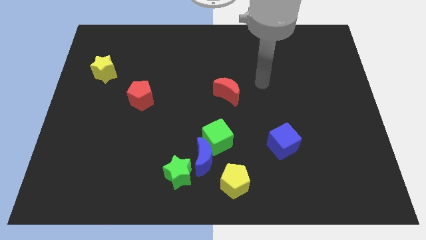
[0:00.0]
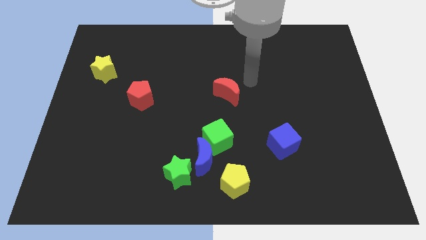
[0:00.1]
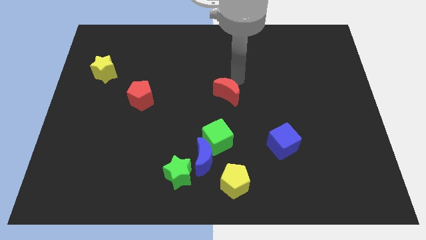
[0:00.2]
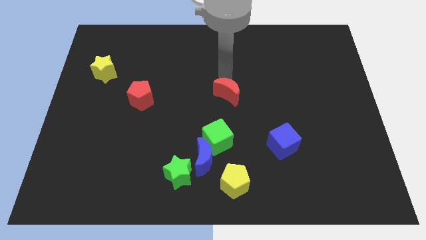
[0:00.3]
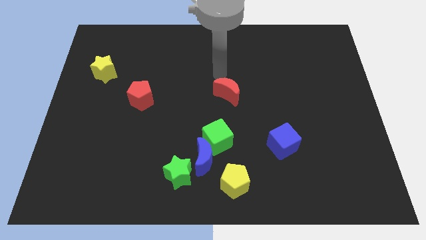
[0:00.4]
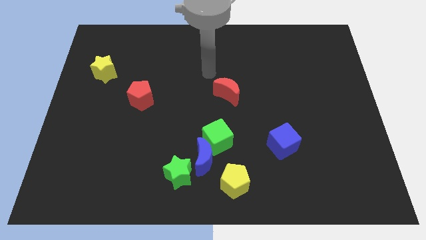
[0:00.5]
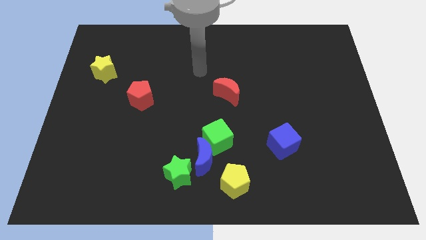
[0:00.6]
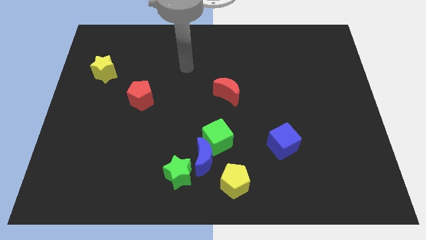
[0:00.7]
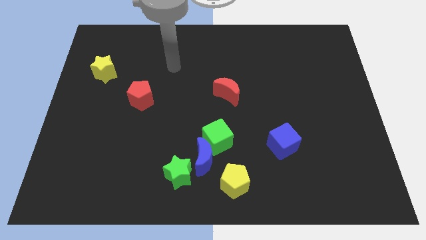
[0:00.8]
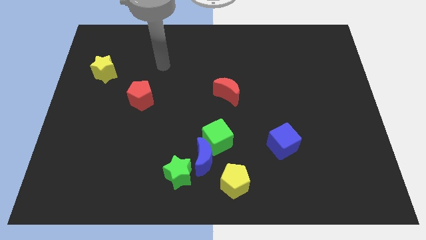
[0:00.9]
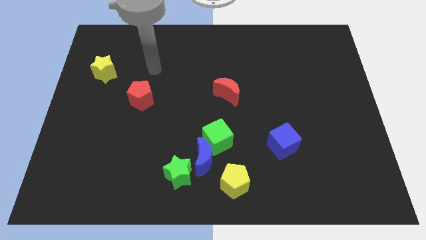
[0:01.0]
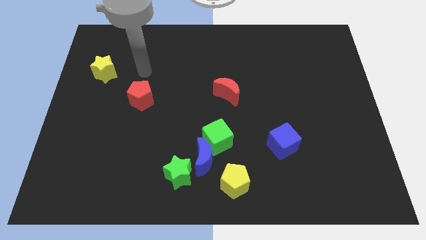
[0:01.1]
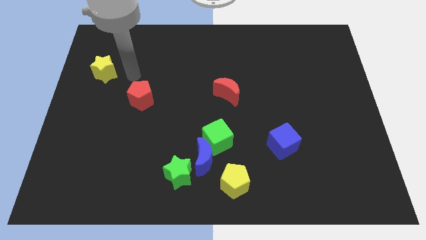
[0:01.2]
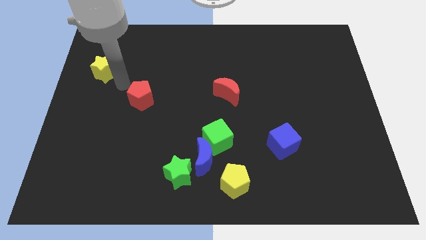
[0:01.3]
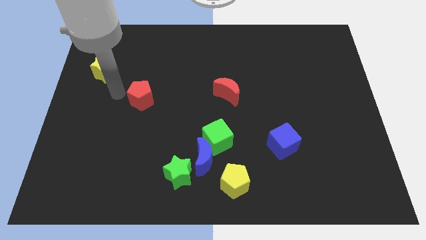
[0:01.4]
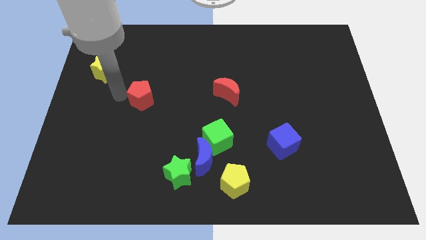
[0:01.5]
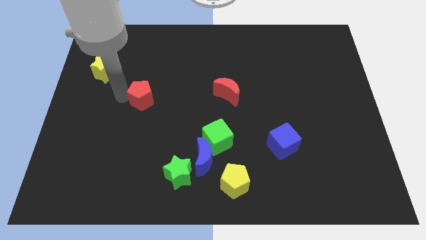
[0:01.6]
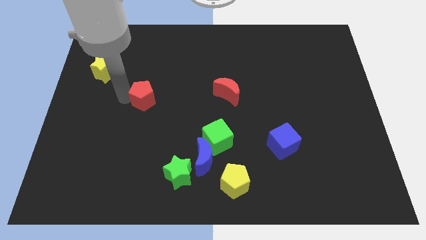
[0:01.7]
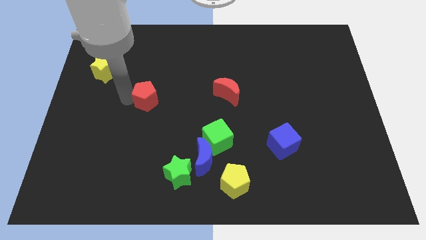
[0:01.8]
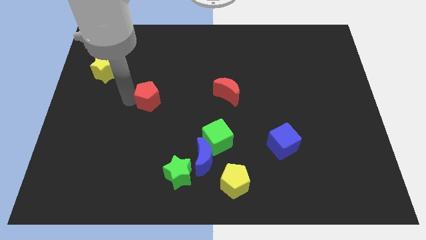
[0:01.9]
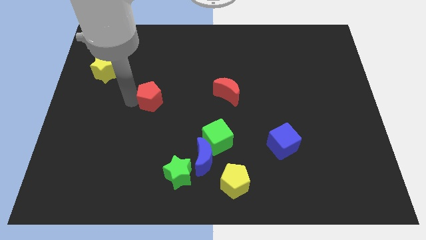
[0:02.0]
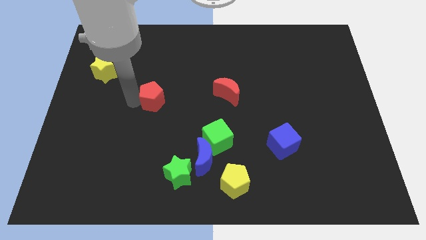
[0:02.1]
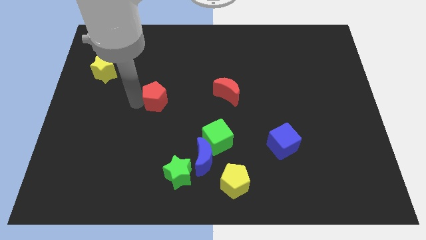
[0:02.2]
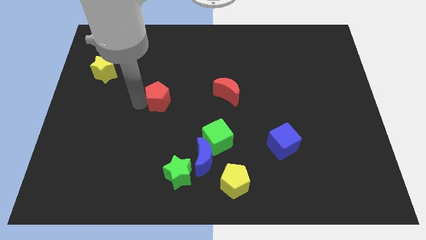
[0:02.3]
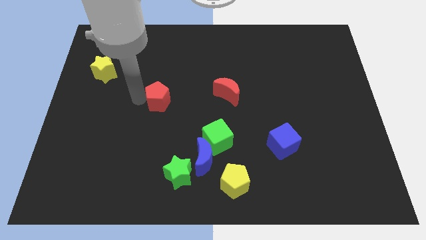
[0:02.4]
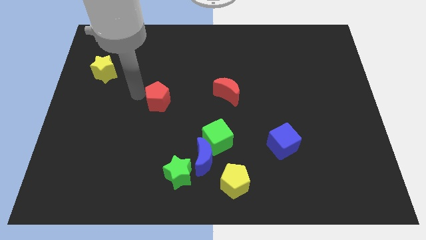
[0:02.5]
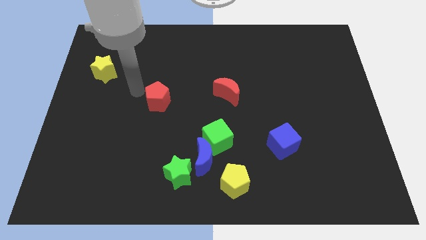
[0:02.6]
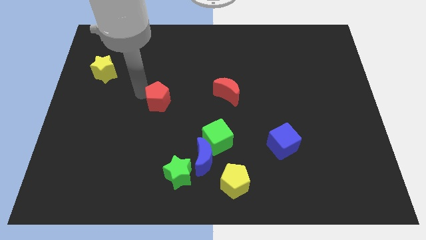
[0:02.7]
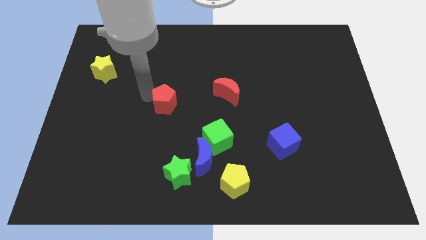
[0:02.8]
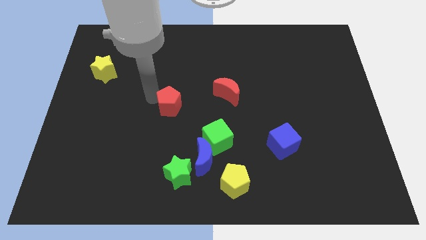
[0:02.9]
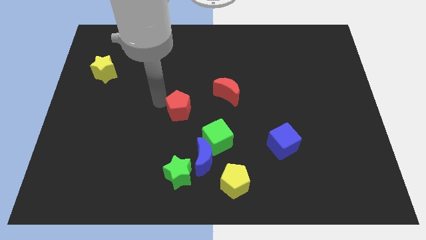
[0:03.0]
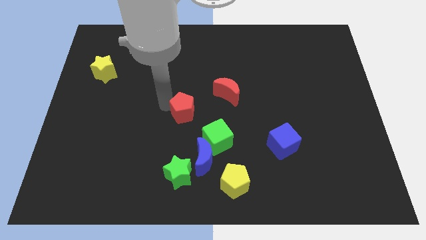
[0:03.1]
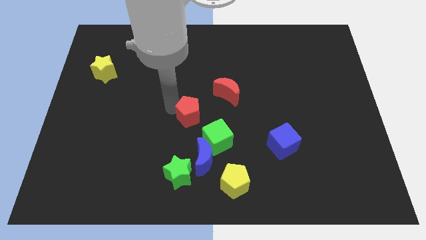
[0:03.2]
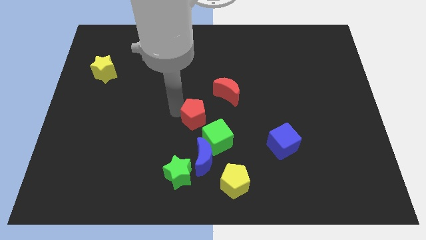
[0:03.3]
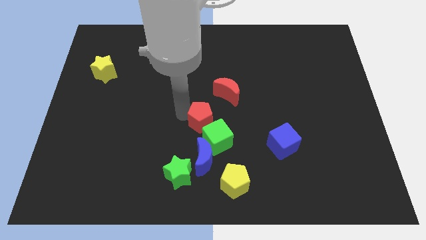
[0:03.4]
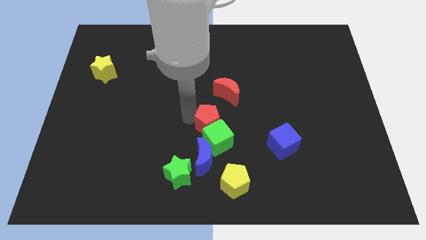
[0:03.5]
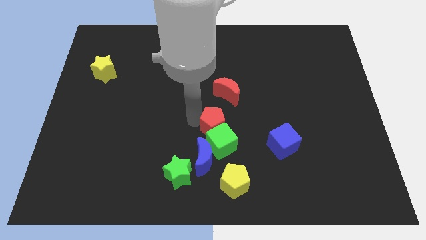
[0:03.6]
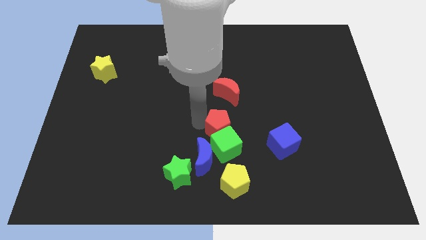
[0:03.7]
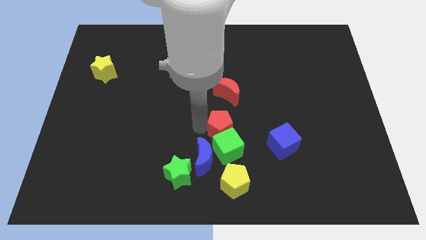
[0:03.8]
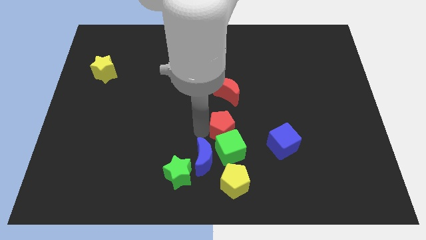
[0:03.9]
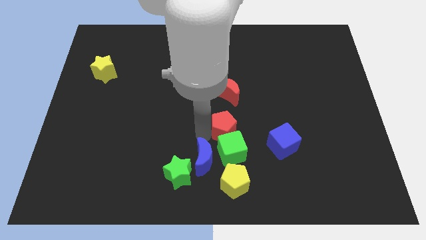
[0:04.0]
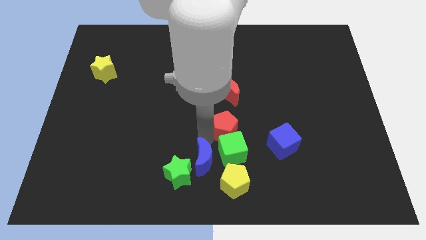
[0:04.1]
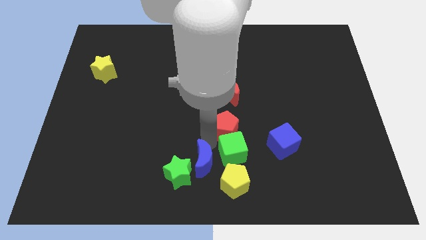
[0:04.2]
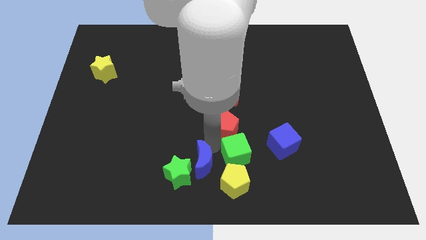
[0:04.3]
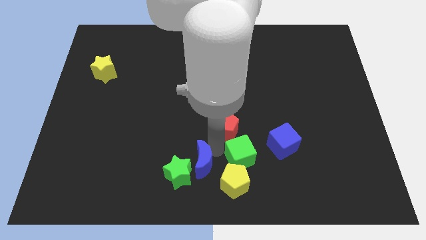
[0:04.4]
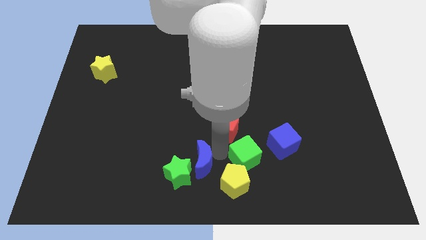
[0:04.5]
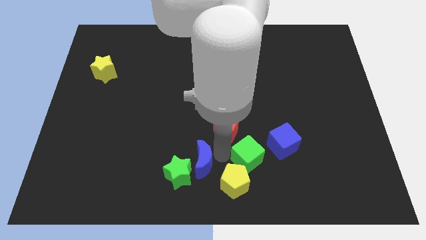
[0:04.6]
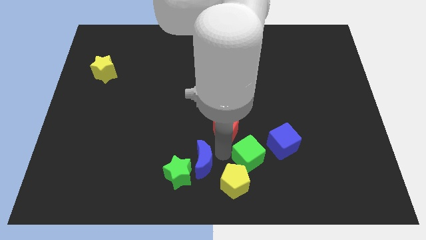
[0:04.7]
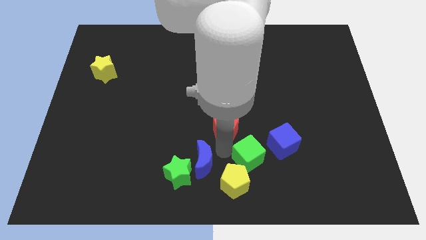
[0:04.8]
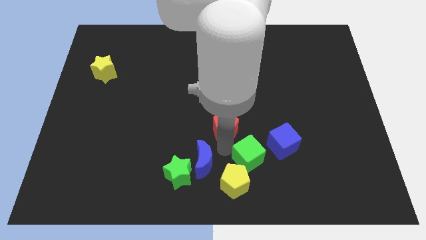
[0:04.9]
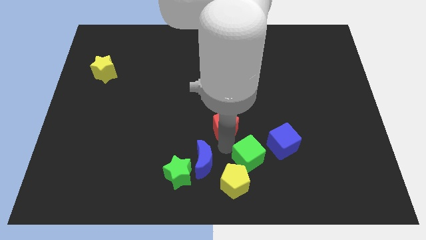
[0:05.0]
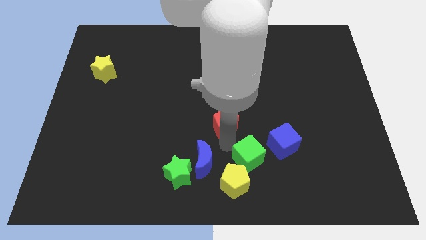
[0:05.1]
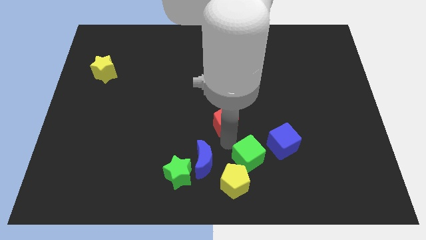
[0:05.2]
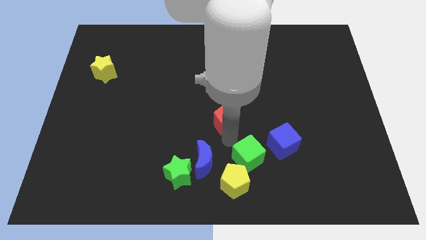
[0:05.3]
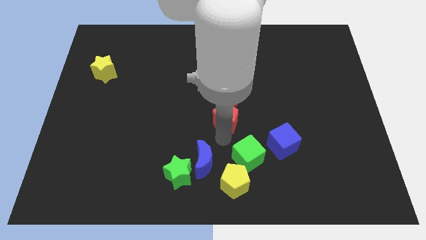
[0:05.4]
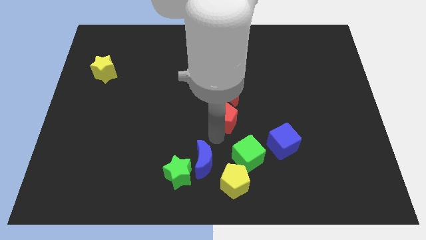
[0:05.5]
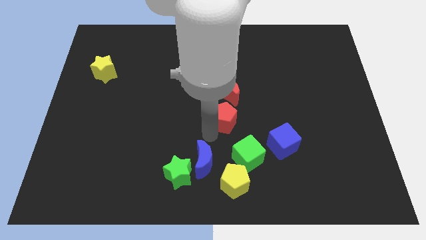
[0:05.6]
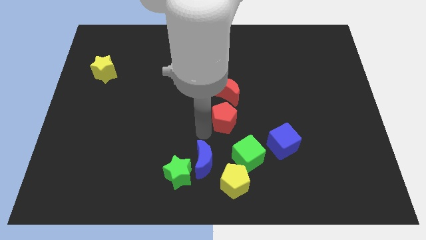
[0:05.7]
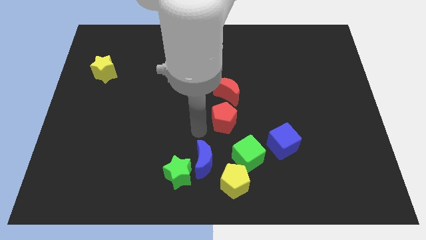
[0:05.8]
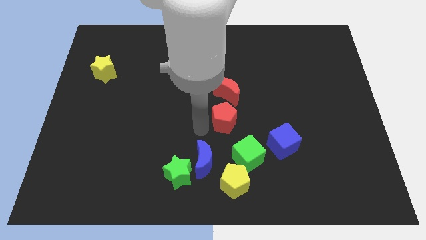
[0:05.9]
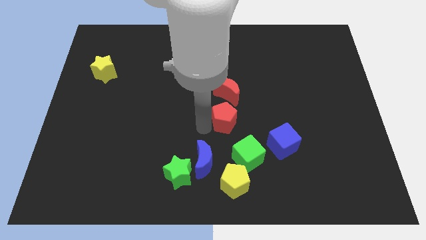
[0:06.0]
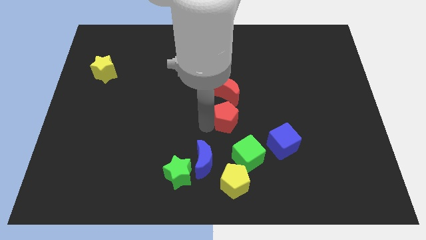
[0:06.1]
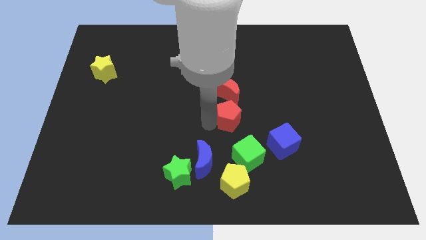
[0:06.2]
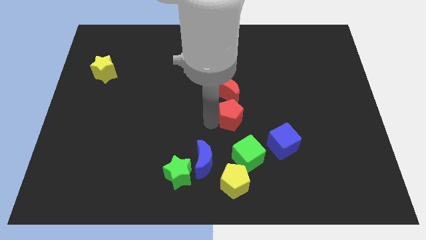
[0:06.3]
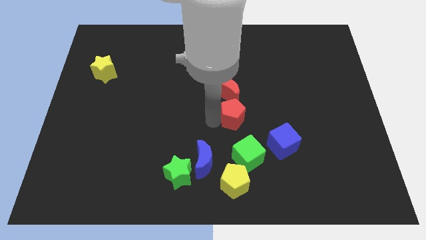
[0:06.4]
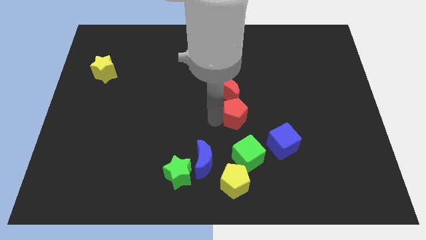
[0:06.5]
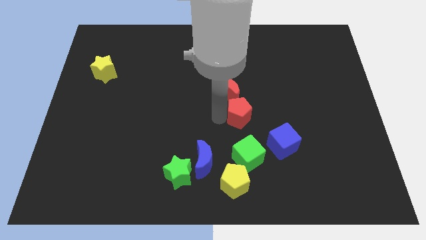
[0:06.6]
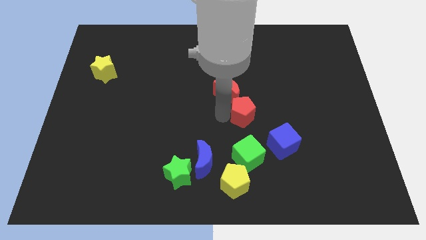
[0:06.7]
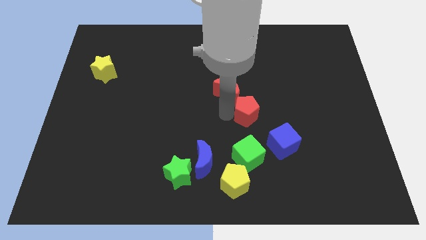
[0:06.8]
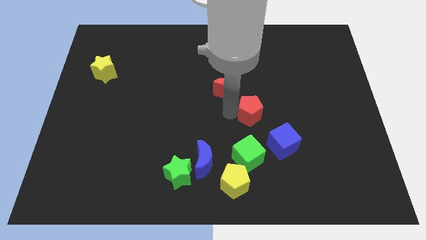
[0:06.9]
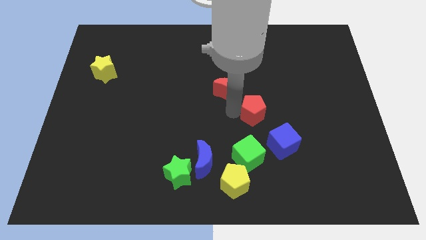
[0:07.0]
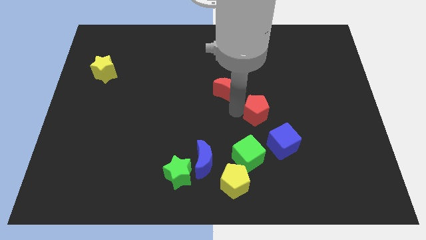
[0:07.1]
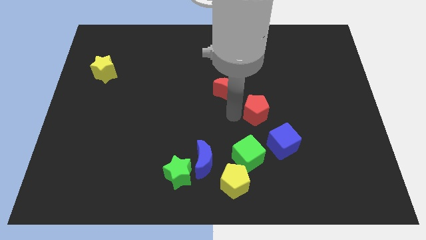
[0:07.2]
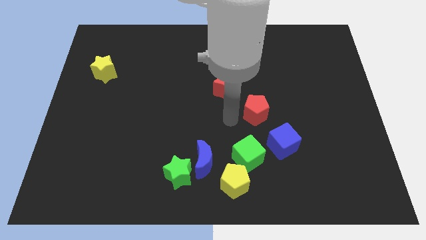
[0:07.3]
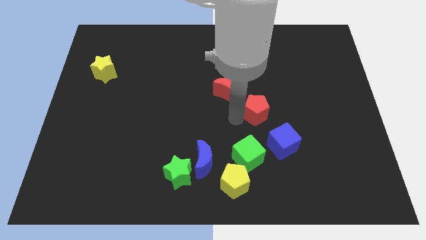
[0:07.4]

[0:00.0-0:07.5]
move the red pentagon to the top of the blue cube
